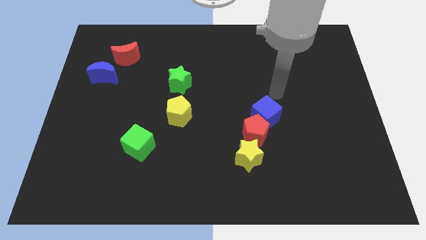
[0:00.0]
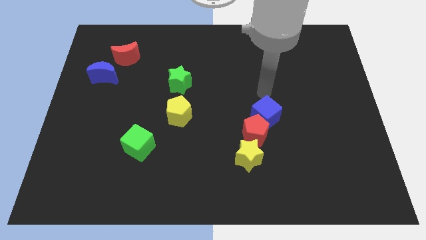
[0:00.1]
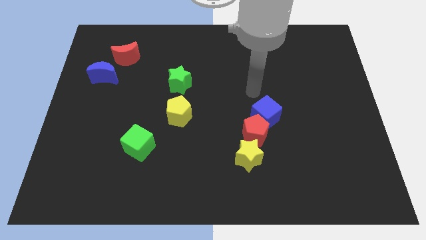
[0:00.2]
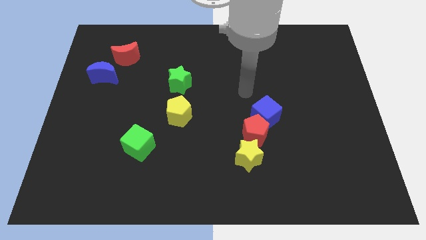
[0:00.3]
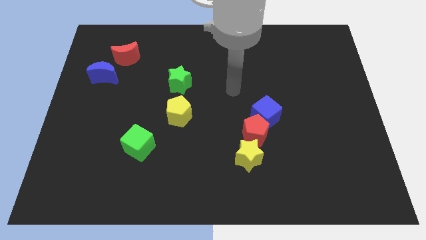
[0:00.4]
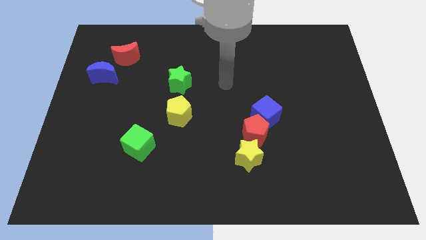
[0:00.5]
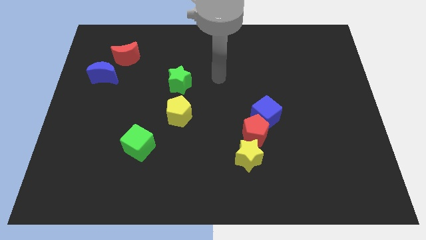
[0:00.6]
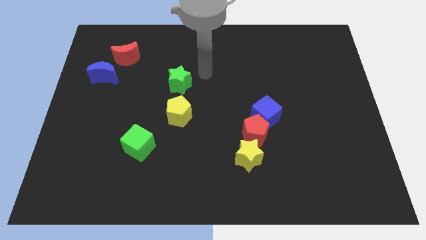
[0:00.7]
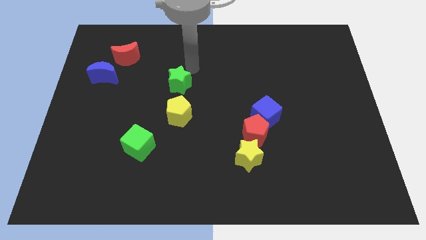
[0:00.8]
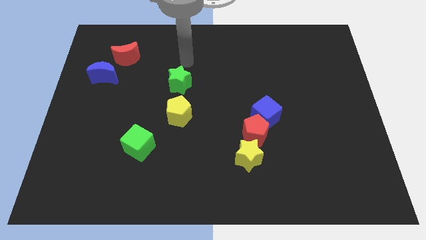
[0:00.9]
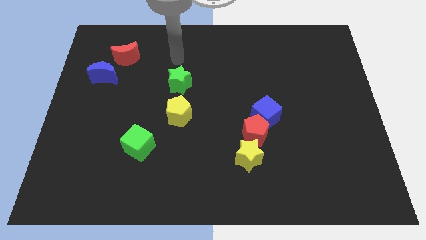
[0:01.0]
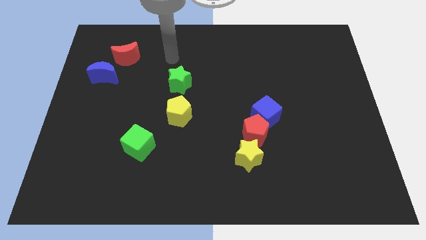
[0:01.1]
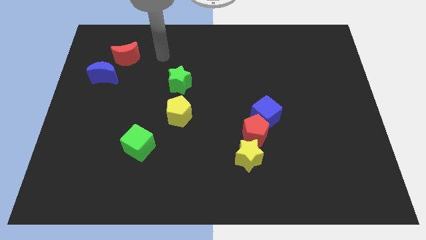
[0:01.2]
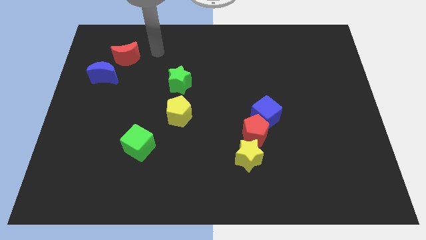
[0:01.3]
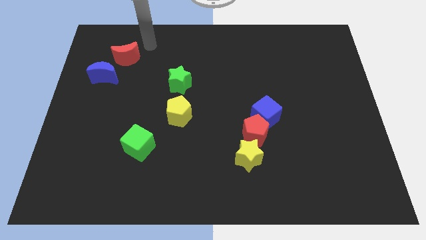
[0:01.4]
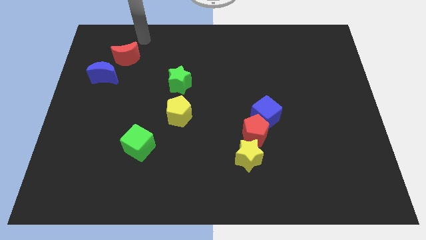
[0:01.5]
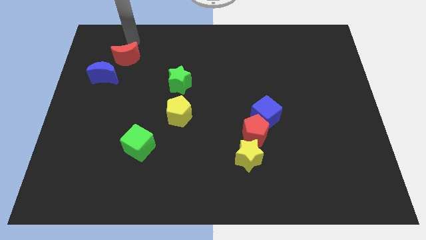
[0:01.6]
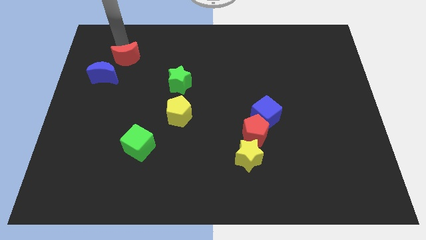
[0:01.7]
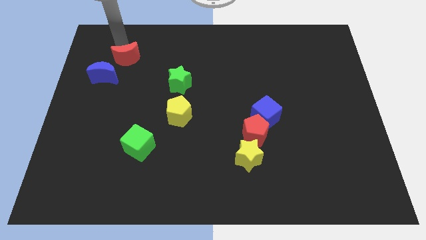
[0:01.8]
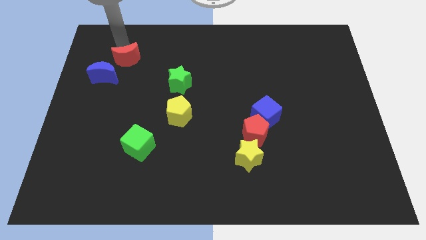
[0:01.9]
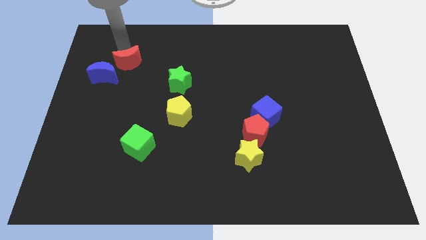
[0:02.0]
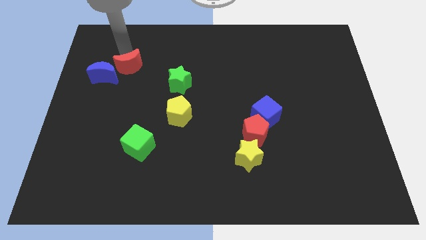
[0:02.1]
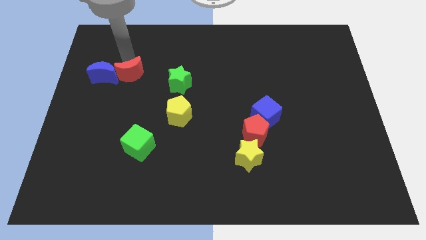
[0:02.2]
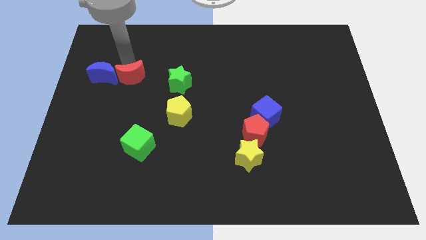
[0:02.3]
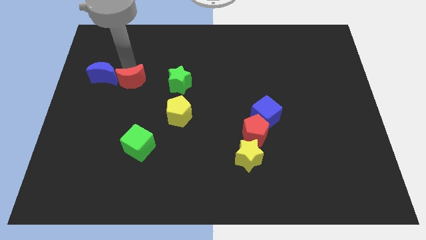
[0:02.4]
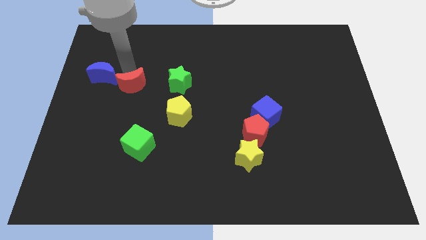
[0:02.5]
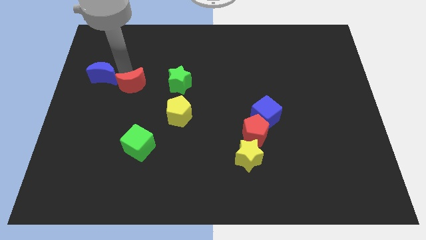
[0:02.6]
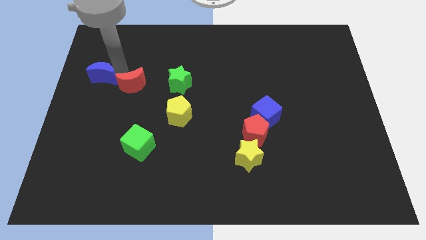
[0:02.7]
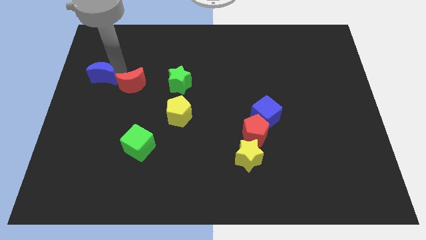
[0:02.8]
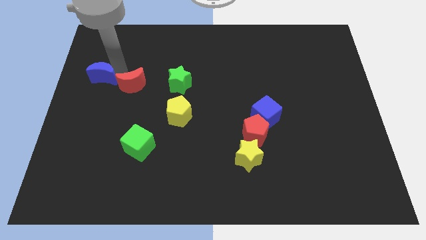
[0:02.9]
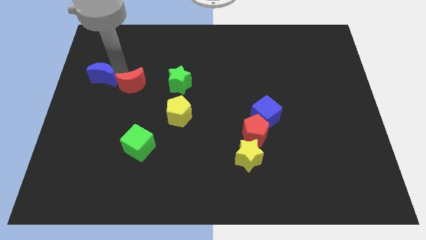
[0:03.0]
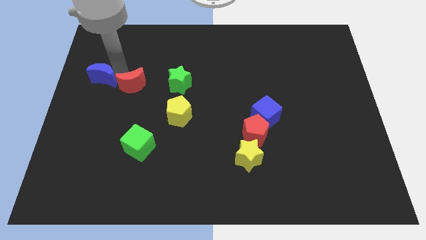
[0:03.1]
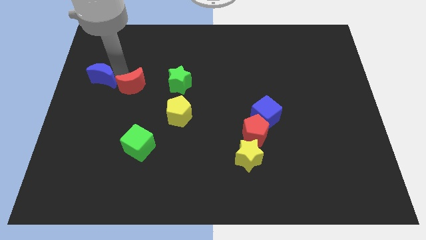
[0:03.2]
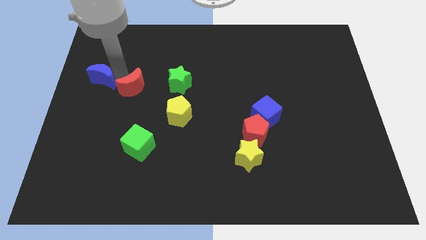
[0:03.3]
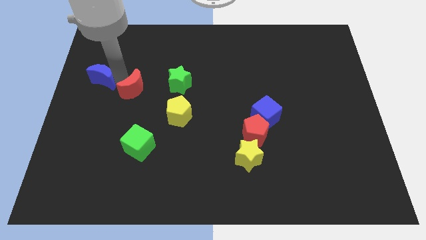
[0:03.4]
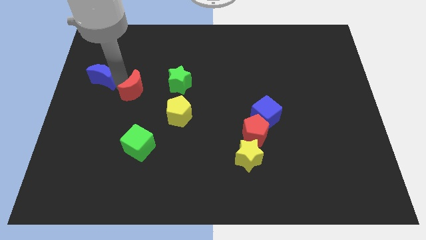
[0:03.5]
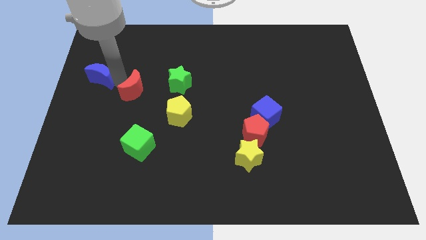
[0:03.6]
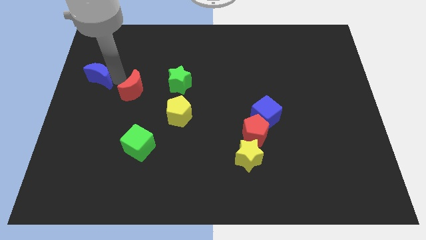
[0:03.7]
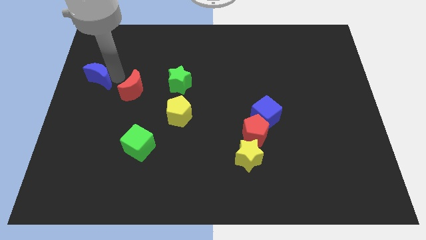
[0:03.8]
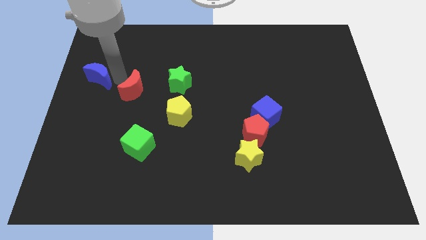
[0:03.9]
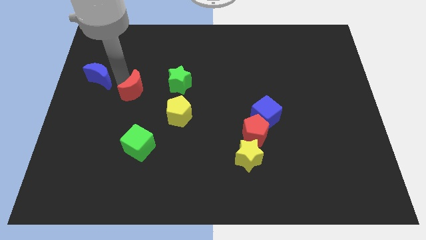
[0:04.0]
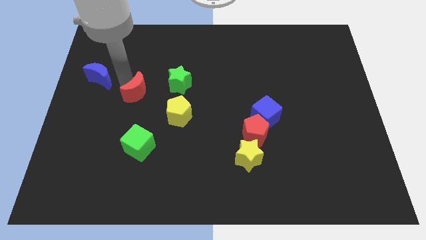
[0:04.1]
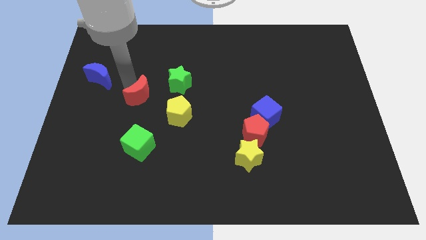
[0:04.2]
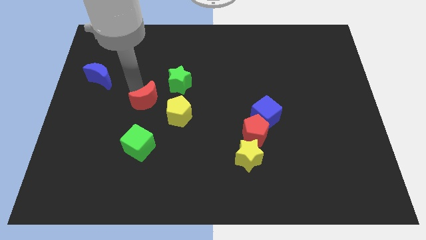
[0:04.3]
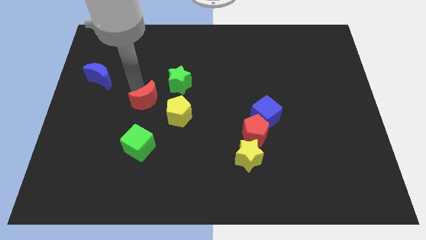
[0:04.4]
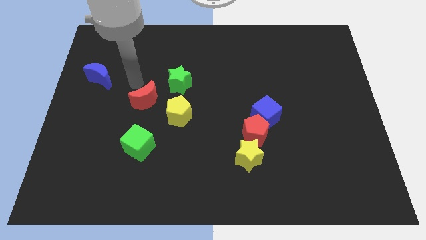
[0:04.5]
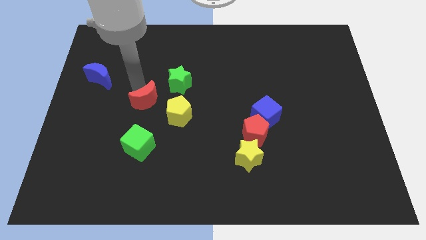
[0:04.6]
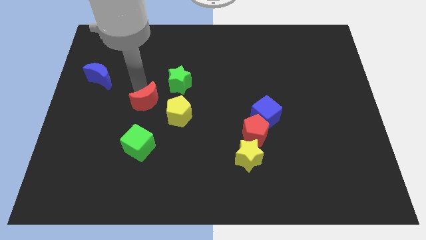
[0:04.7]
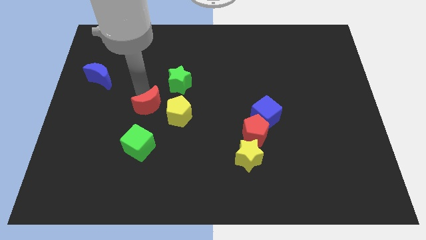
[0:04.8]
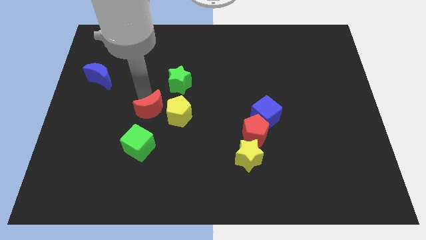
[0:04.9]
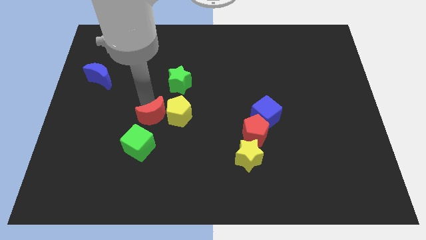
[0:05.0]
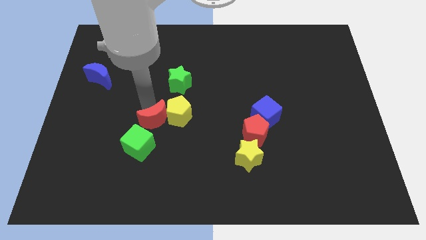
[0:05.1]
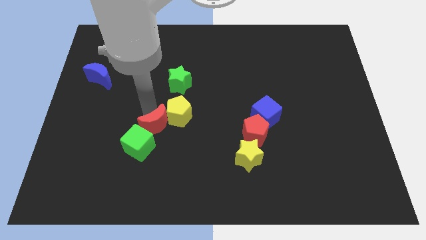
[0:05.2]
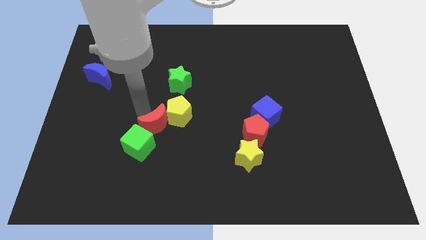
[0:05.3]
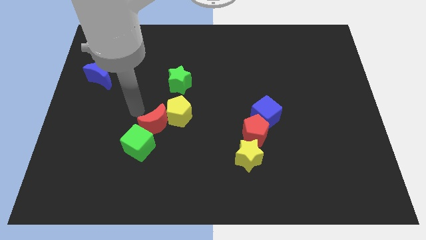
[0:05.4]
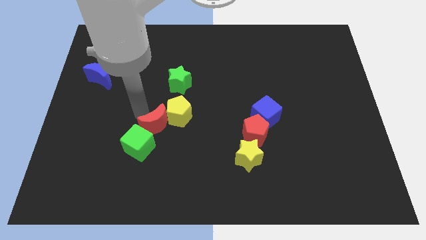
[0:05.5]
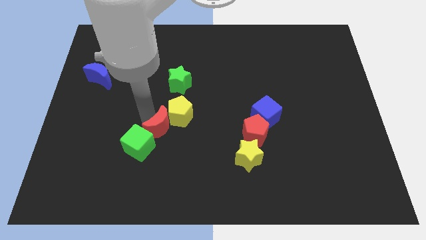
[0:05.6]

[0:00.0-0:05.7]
move the red moon right of the green cube

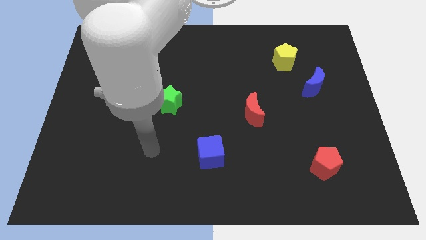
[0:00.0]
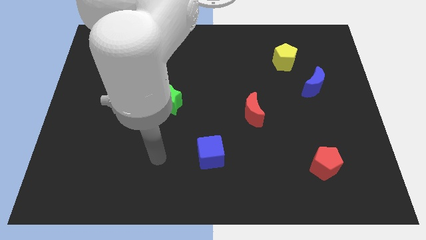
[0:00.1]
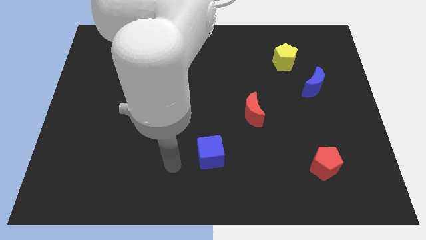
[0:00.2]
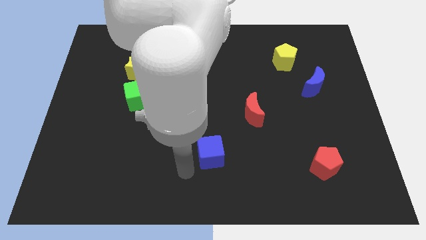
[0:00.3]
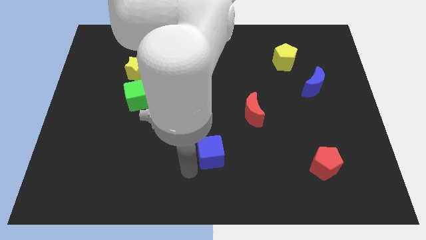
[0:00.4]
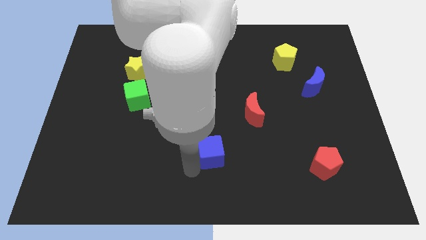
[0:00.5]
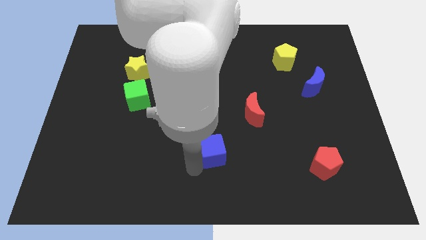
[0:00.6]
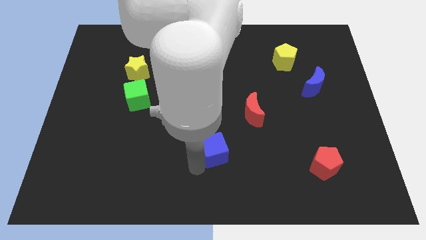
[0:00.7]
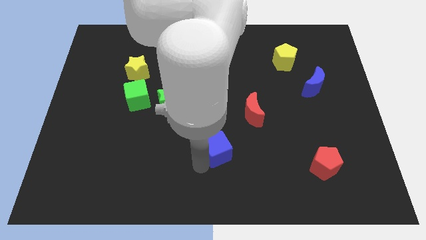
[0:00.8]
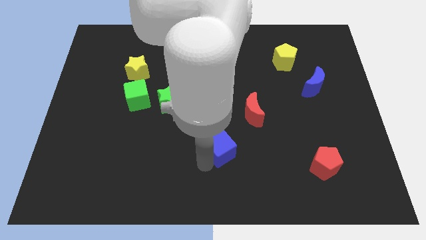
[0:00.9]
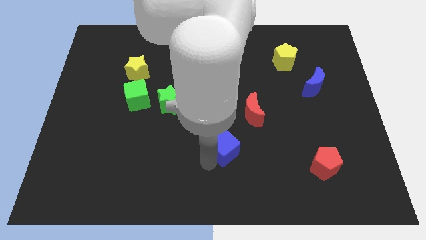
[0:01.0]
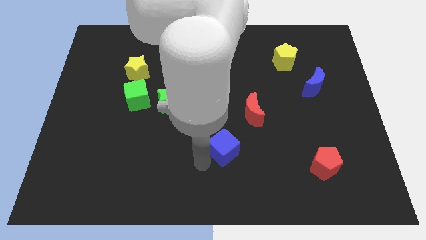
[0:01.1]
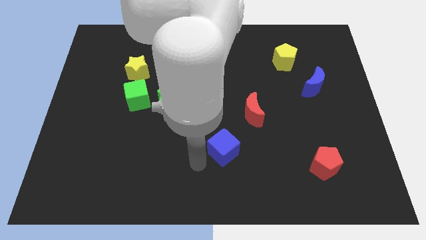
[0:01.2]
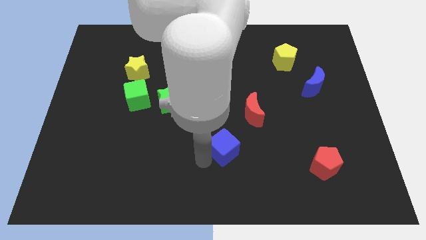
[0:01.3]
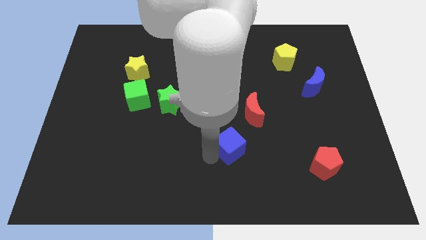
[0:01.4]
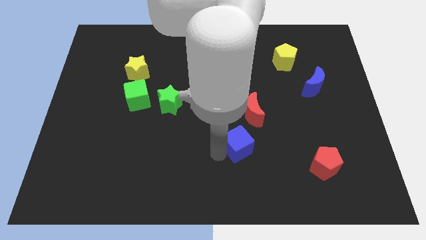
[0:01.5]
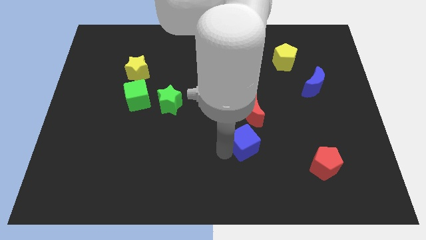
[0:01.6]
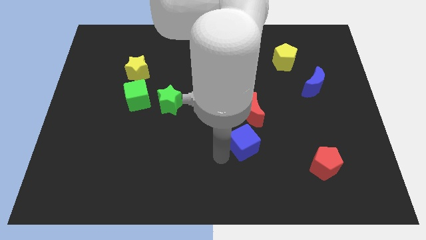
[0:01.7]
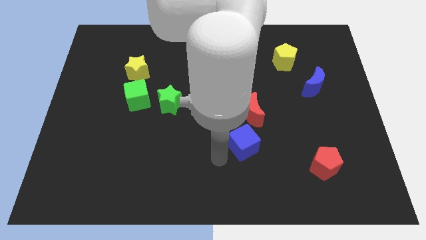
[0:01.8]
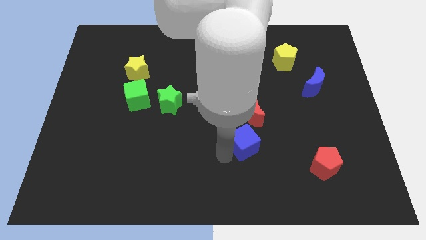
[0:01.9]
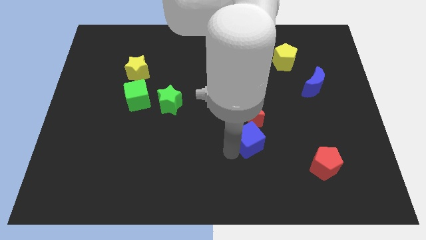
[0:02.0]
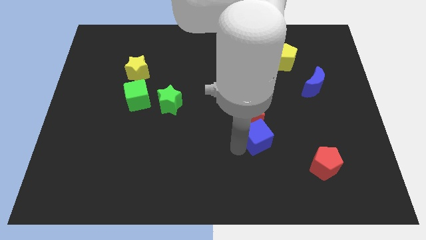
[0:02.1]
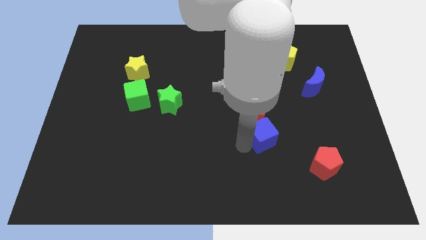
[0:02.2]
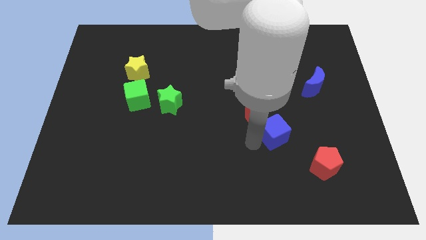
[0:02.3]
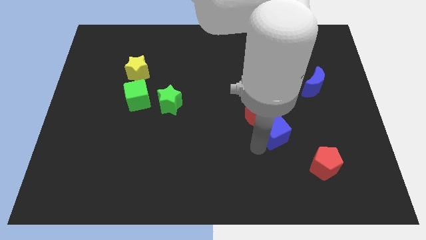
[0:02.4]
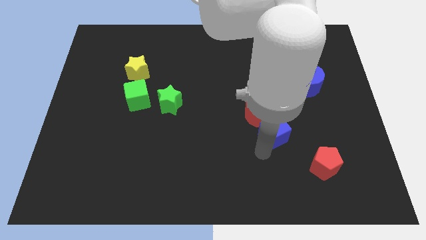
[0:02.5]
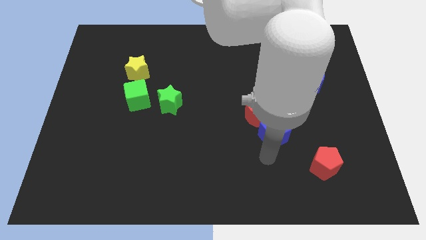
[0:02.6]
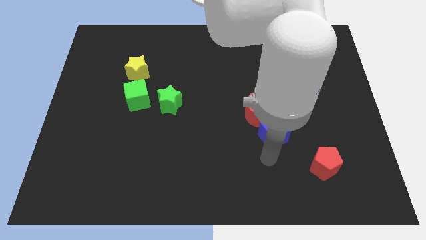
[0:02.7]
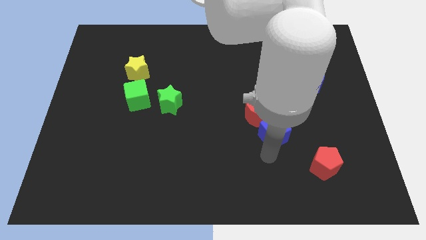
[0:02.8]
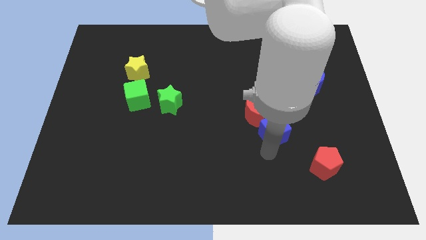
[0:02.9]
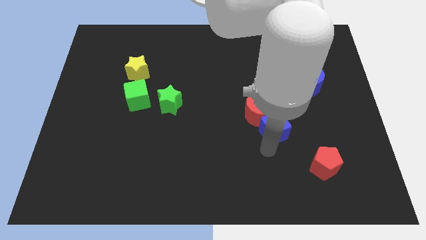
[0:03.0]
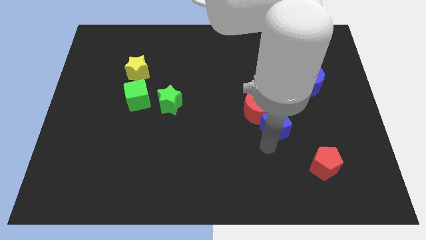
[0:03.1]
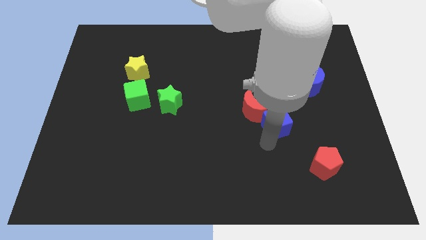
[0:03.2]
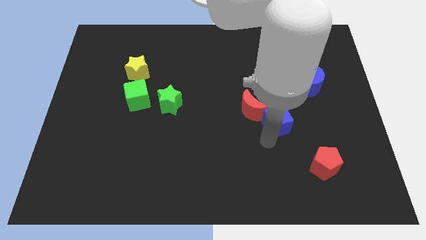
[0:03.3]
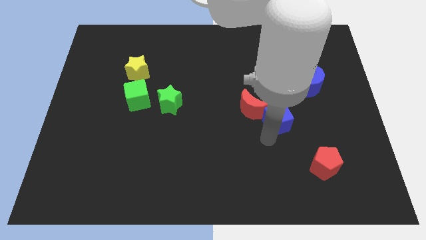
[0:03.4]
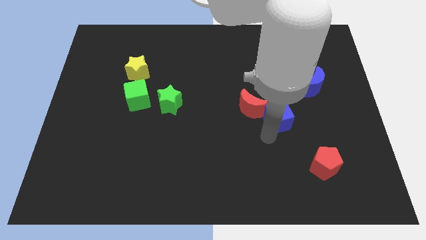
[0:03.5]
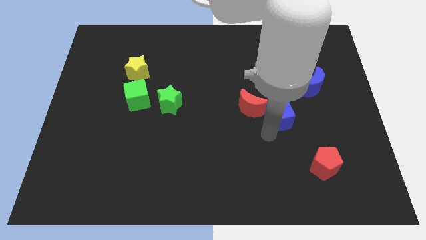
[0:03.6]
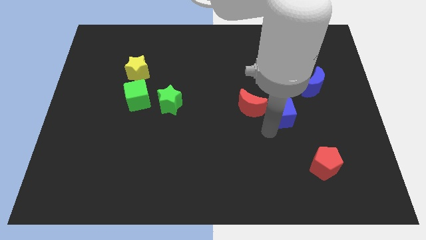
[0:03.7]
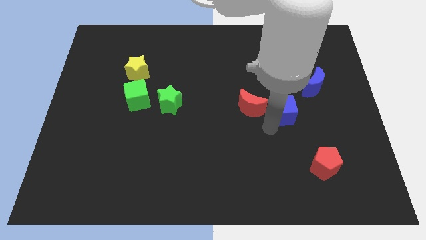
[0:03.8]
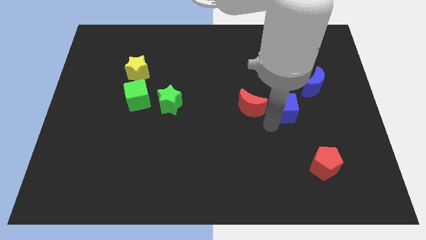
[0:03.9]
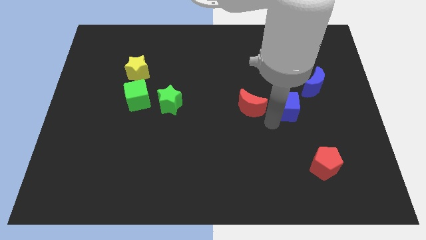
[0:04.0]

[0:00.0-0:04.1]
put the blue cube below the yellow pentagon
